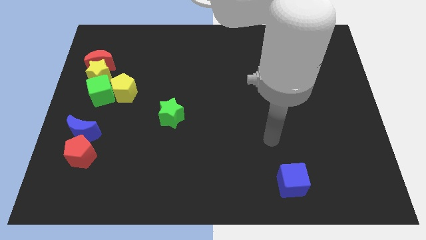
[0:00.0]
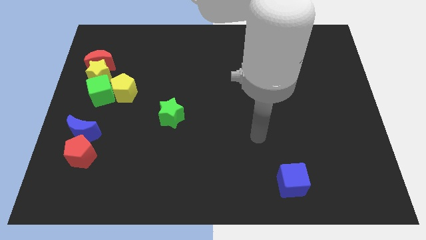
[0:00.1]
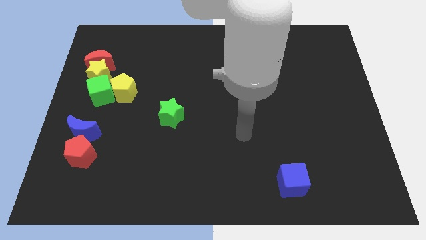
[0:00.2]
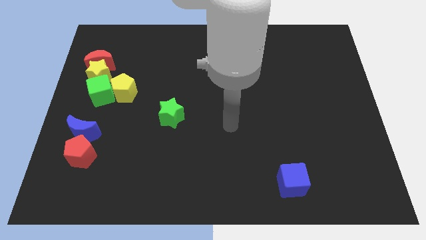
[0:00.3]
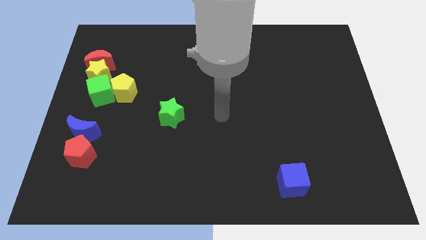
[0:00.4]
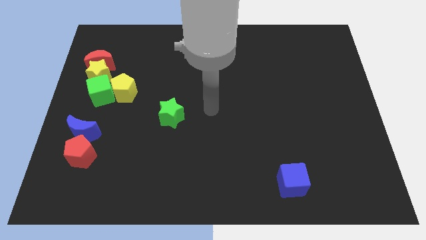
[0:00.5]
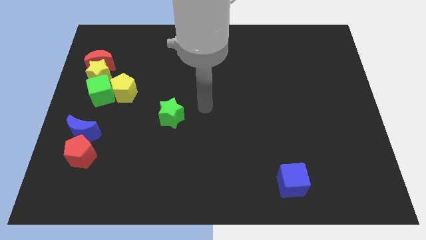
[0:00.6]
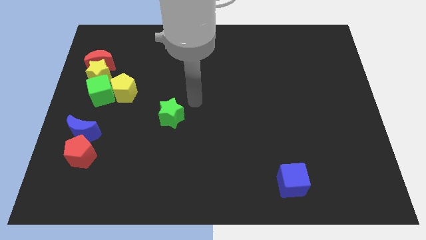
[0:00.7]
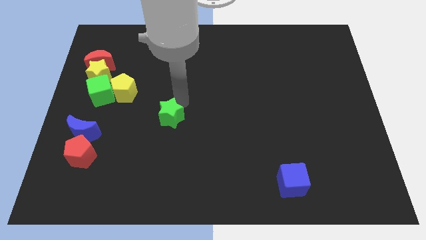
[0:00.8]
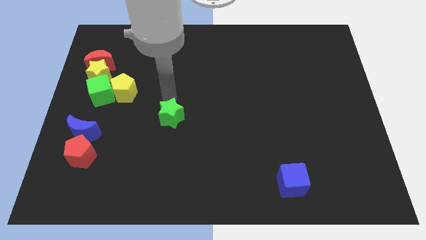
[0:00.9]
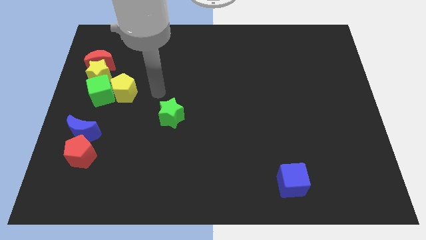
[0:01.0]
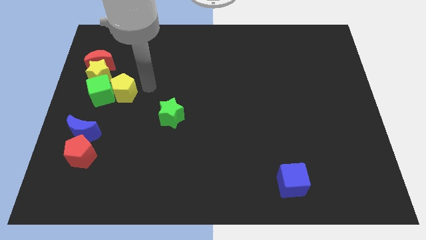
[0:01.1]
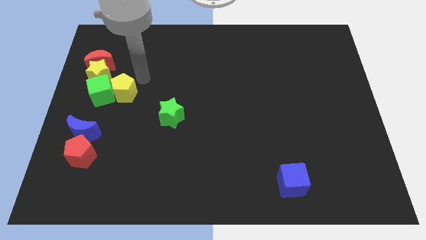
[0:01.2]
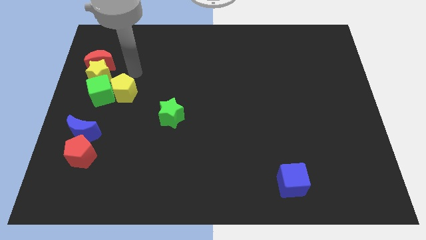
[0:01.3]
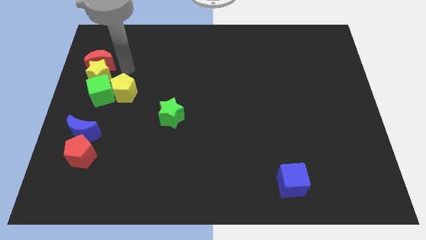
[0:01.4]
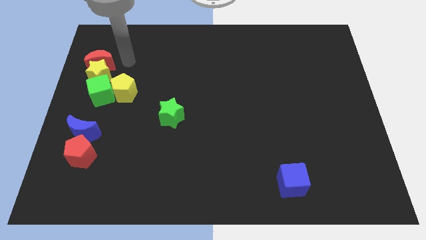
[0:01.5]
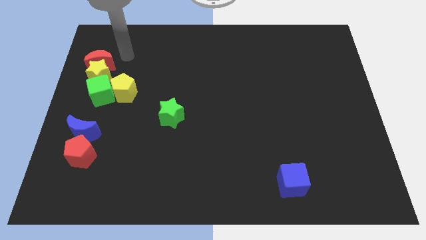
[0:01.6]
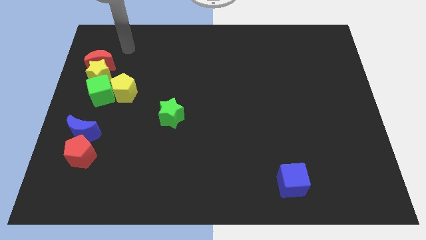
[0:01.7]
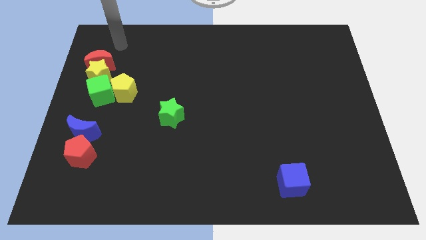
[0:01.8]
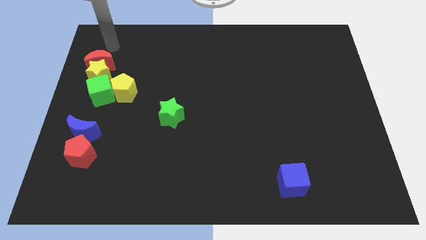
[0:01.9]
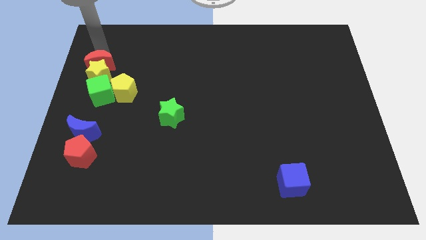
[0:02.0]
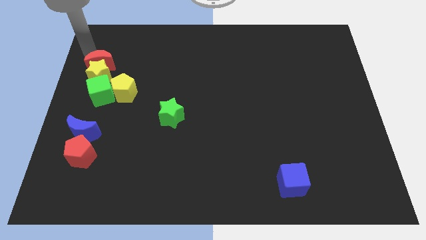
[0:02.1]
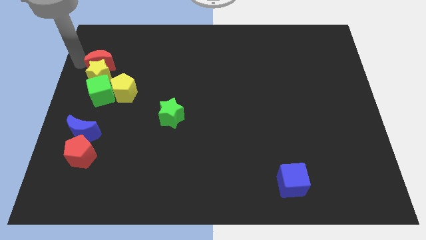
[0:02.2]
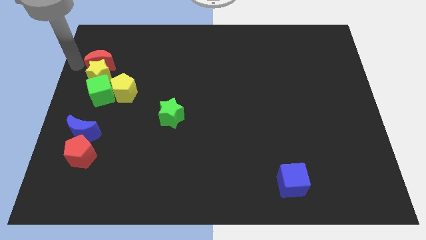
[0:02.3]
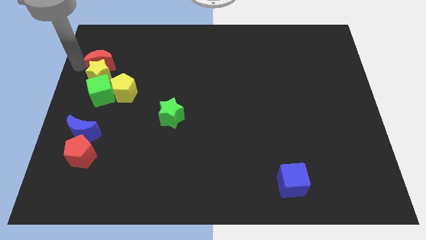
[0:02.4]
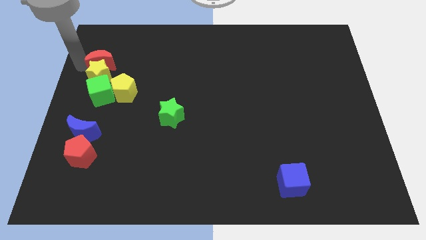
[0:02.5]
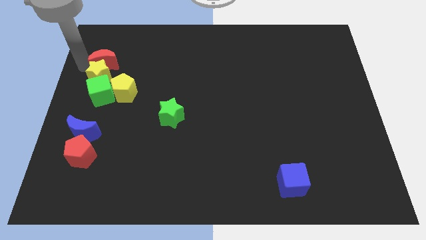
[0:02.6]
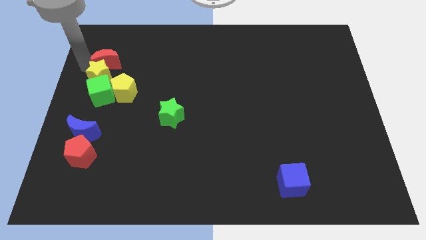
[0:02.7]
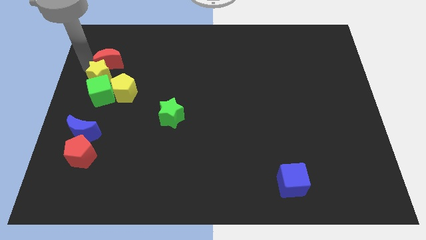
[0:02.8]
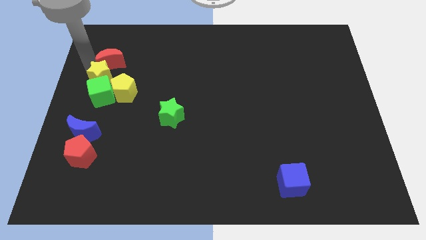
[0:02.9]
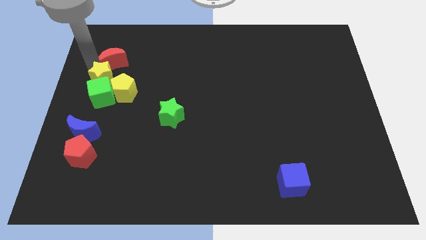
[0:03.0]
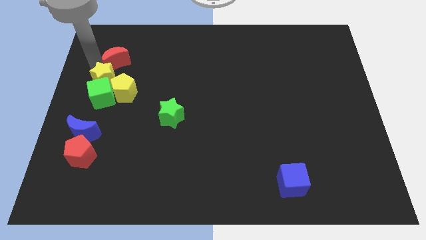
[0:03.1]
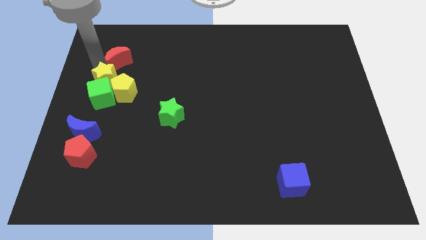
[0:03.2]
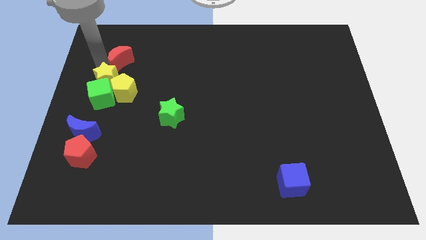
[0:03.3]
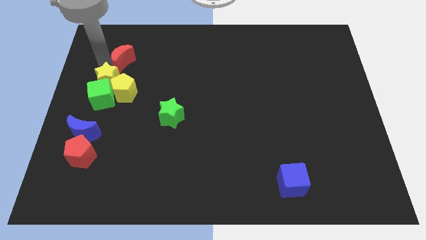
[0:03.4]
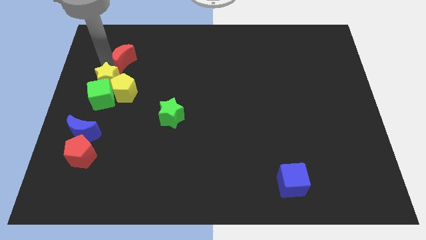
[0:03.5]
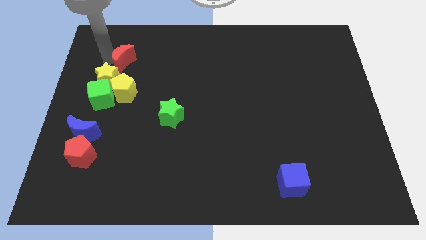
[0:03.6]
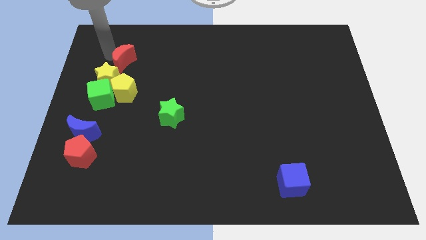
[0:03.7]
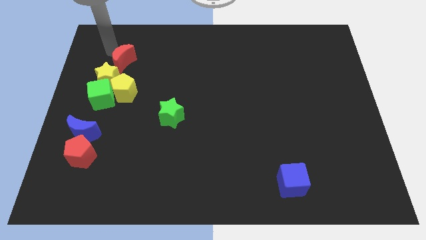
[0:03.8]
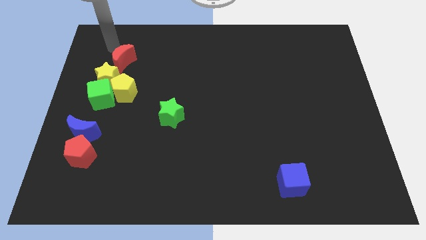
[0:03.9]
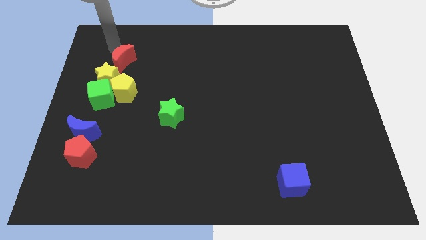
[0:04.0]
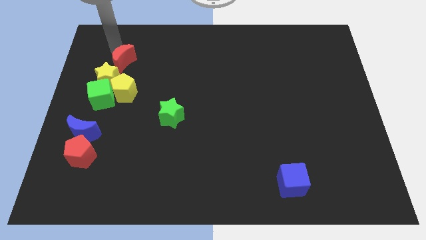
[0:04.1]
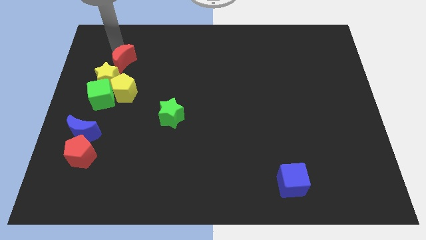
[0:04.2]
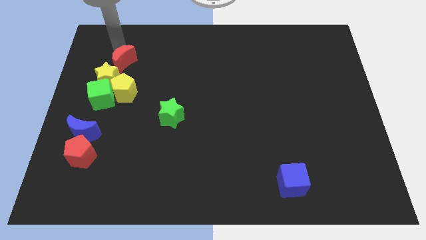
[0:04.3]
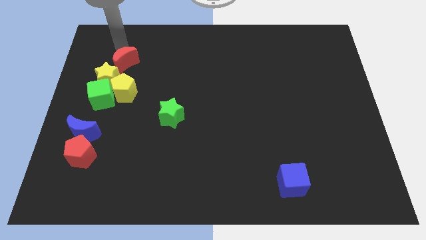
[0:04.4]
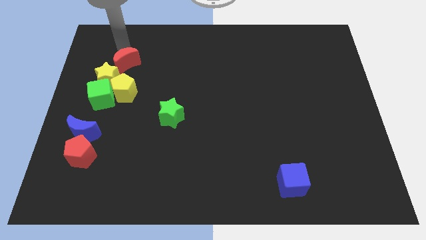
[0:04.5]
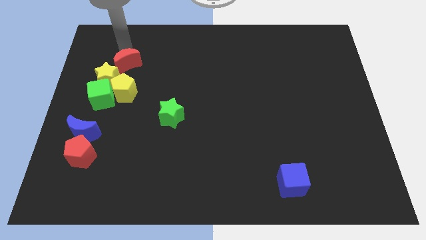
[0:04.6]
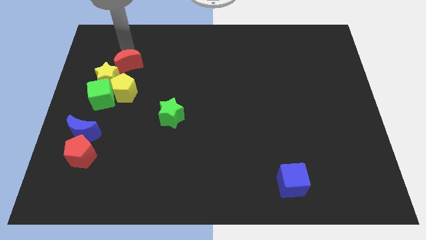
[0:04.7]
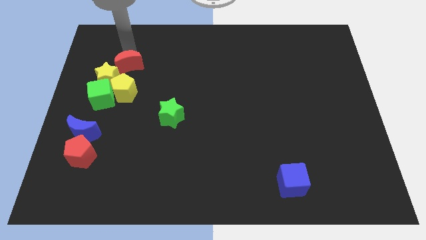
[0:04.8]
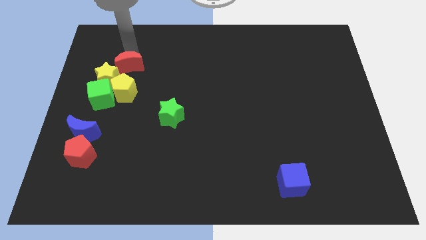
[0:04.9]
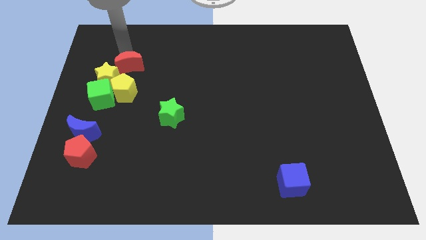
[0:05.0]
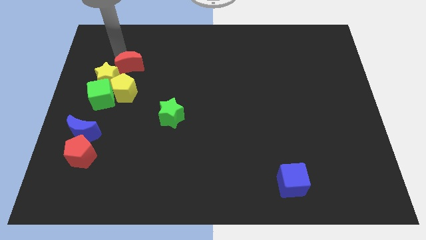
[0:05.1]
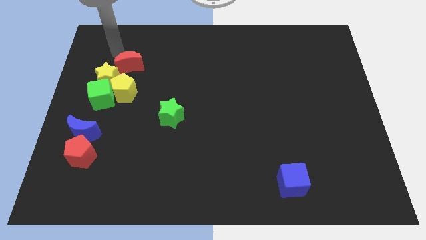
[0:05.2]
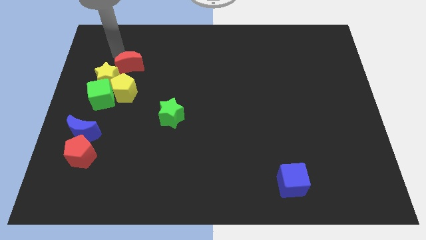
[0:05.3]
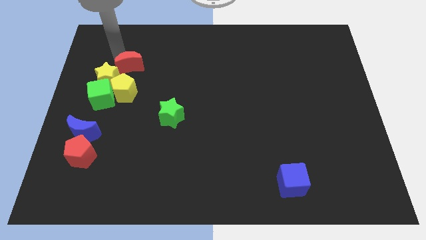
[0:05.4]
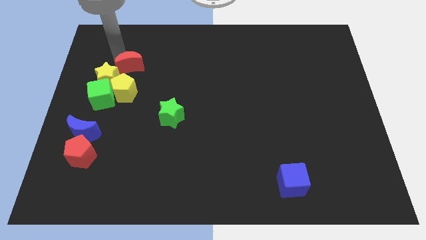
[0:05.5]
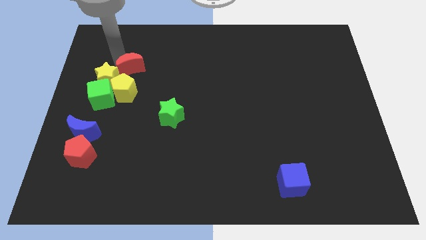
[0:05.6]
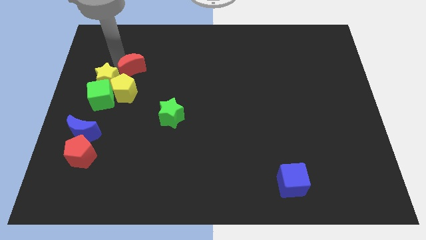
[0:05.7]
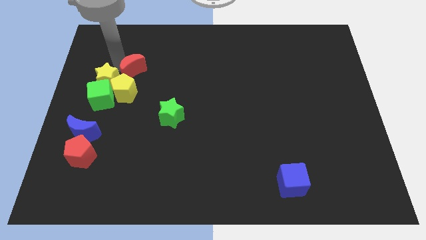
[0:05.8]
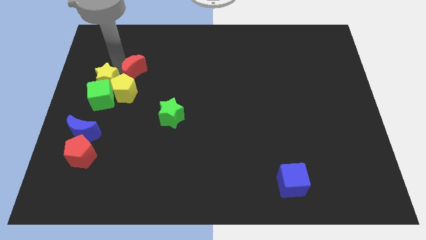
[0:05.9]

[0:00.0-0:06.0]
move the red moon down and right diagonally a little bit

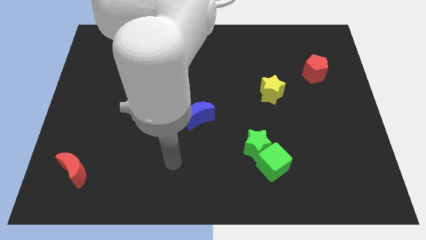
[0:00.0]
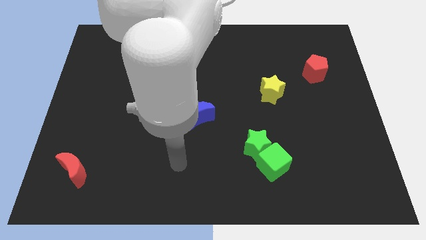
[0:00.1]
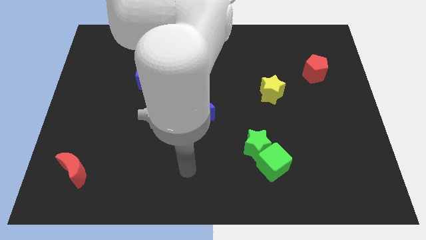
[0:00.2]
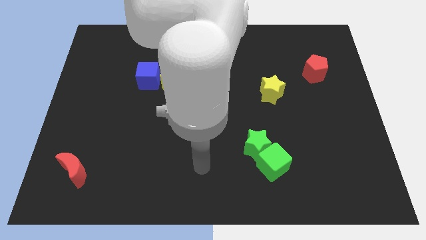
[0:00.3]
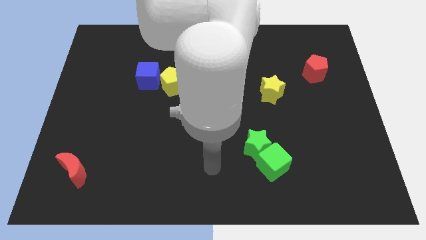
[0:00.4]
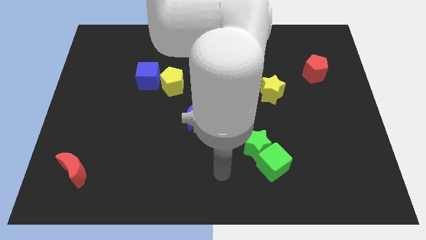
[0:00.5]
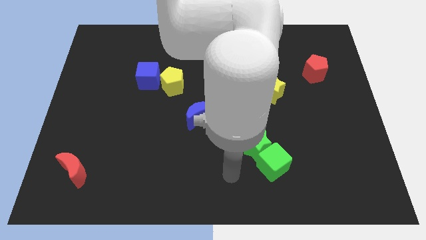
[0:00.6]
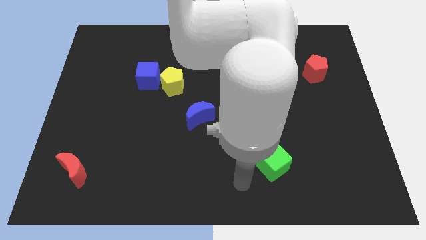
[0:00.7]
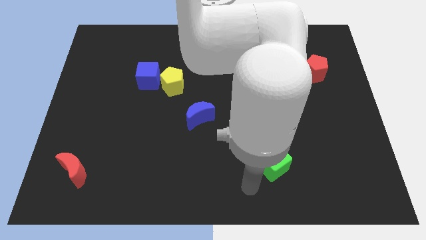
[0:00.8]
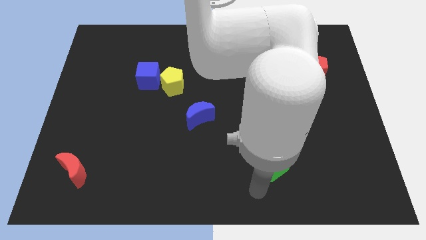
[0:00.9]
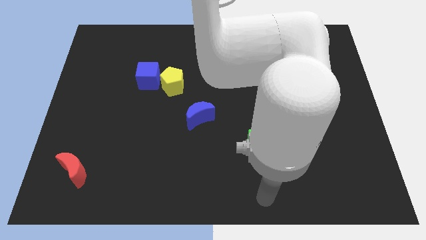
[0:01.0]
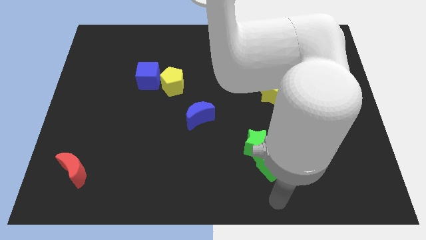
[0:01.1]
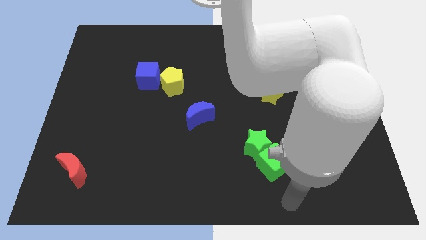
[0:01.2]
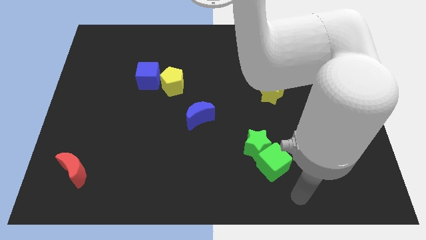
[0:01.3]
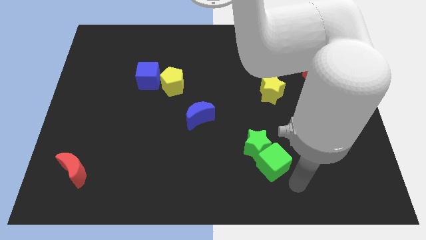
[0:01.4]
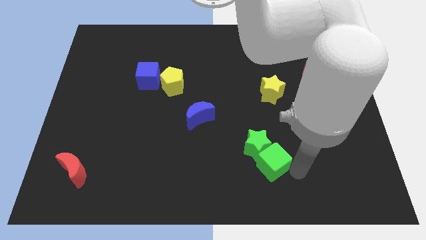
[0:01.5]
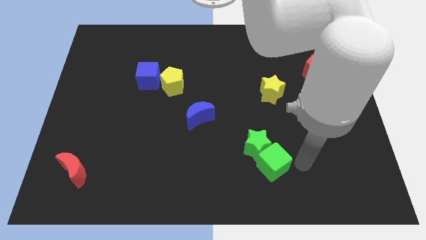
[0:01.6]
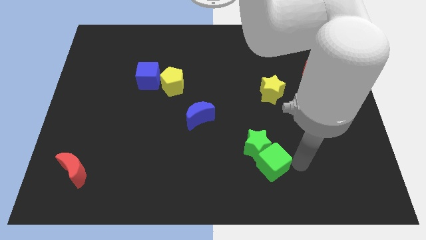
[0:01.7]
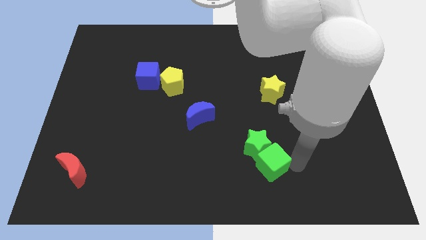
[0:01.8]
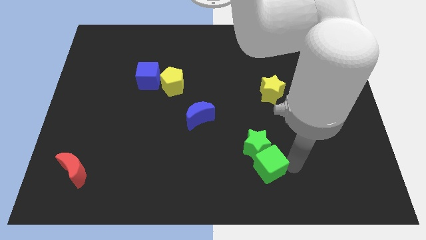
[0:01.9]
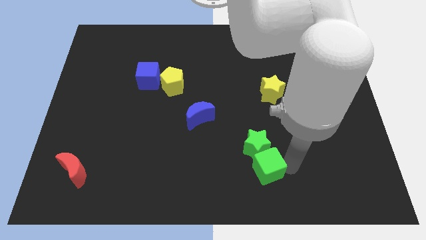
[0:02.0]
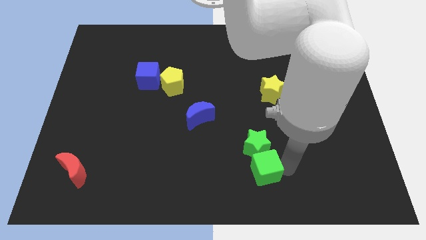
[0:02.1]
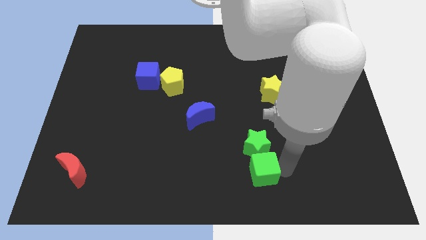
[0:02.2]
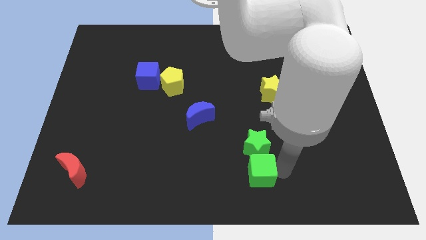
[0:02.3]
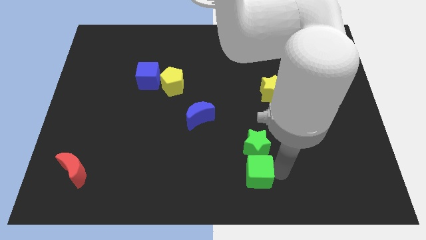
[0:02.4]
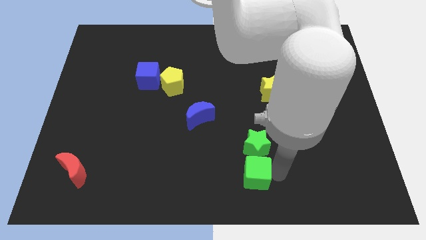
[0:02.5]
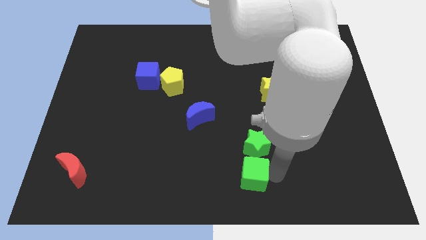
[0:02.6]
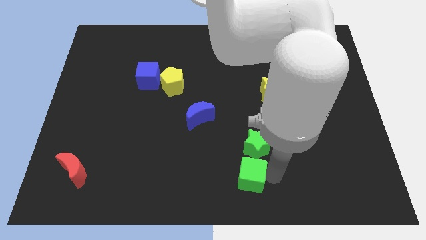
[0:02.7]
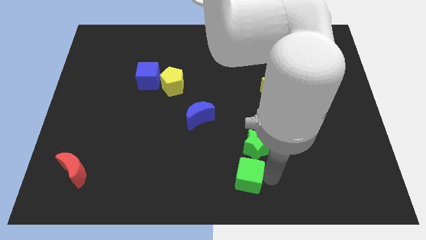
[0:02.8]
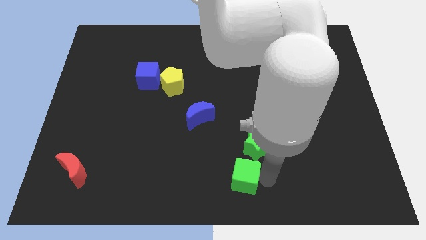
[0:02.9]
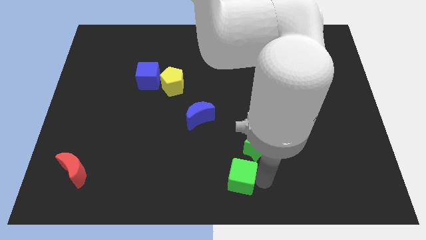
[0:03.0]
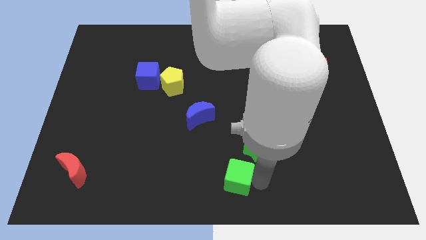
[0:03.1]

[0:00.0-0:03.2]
slightly push the green cube left
